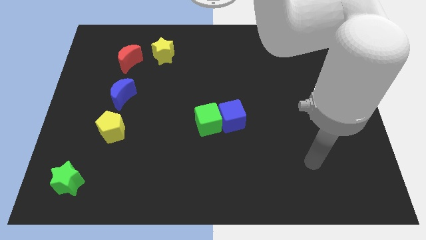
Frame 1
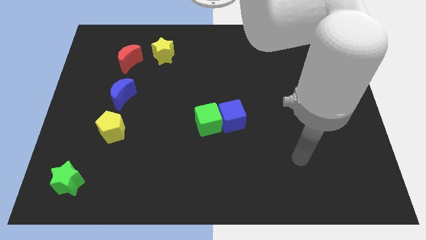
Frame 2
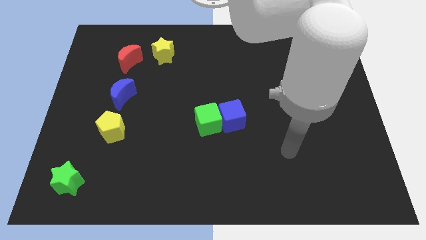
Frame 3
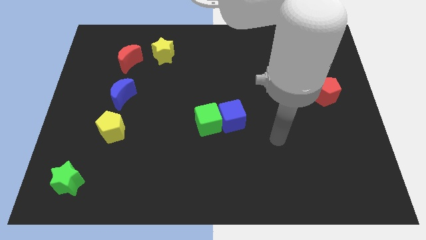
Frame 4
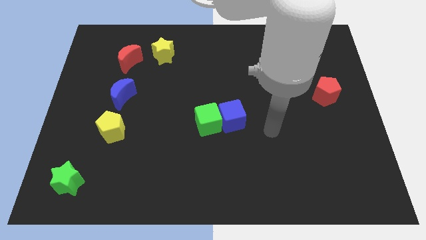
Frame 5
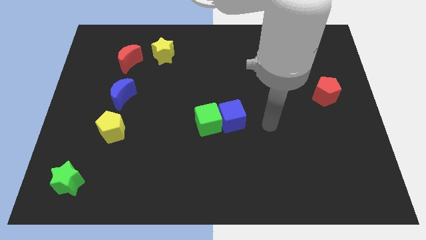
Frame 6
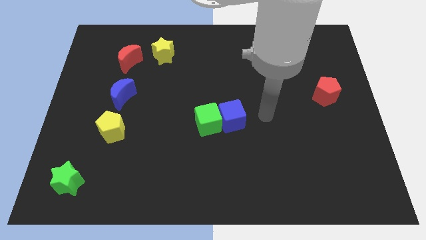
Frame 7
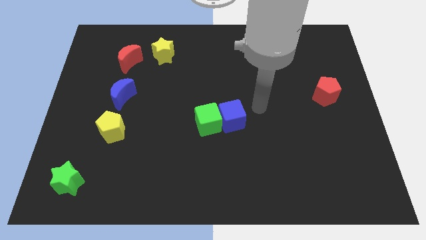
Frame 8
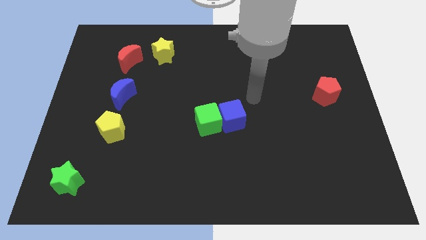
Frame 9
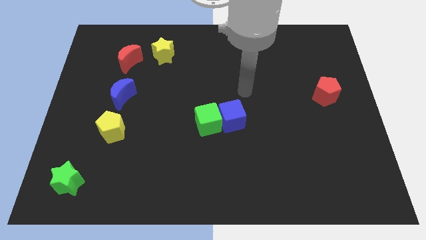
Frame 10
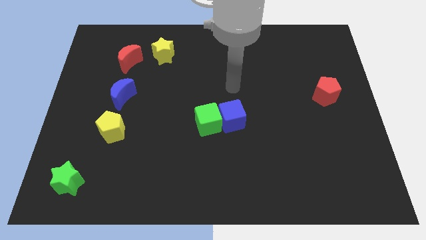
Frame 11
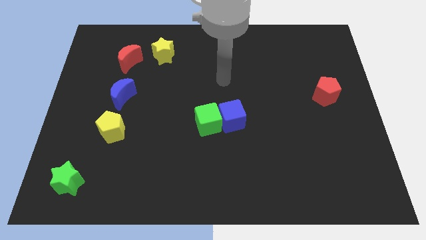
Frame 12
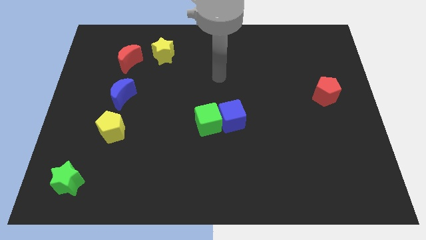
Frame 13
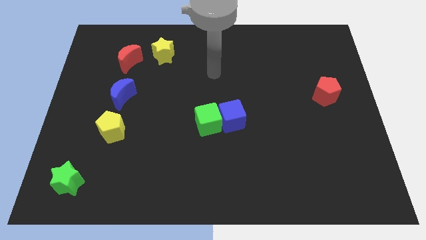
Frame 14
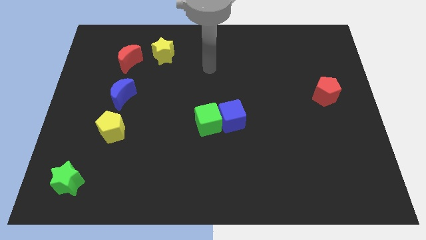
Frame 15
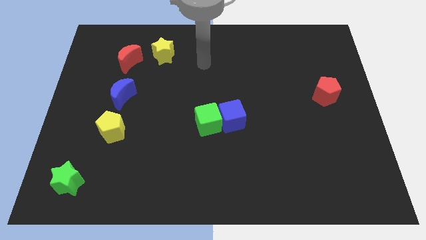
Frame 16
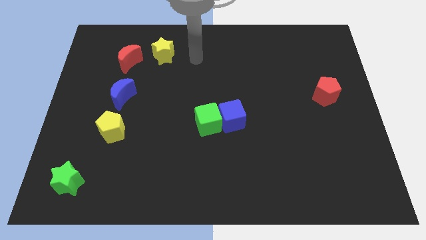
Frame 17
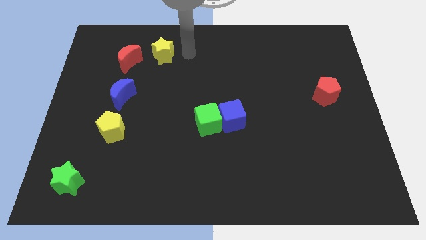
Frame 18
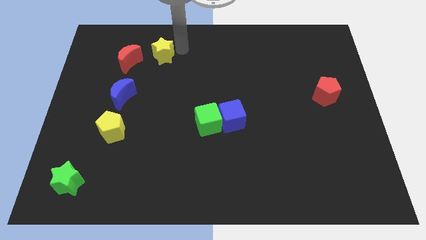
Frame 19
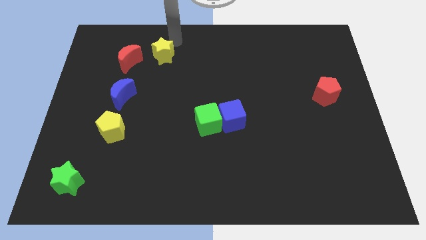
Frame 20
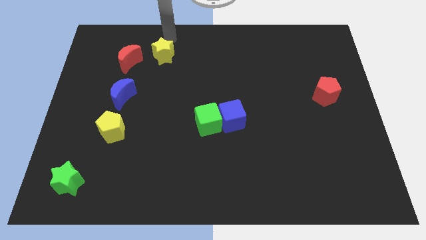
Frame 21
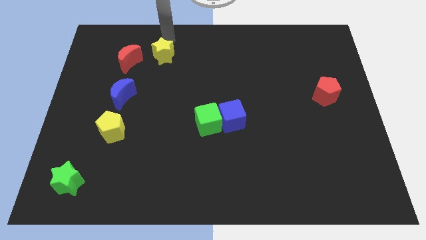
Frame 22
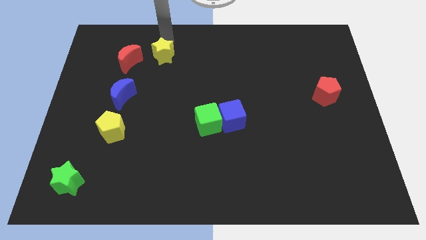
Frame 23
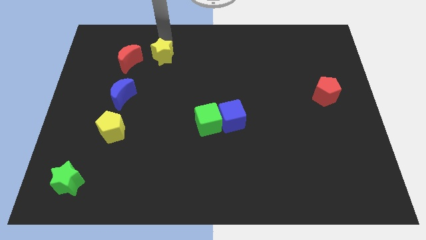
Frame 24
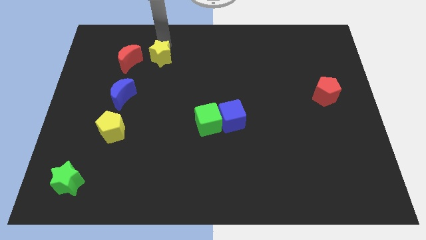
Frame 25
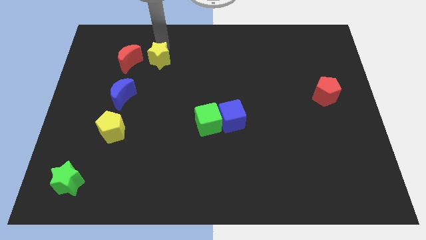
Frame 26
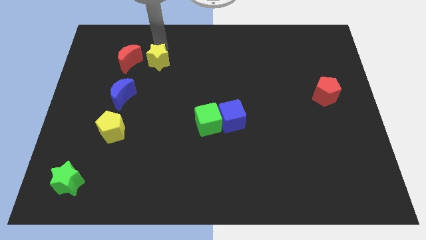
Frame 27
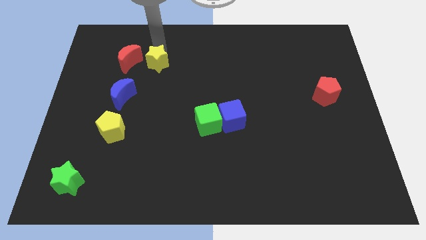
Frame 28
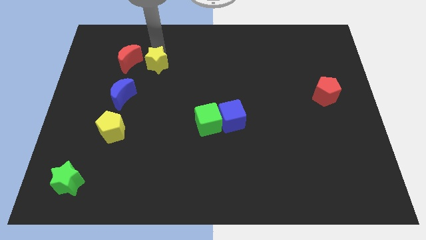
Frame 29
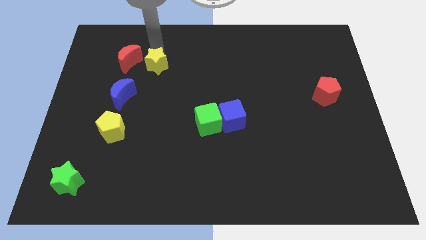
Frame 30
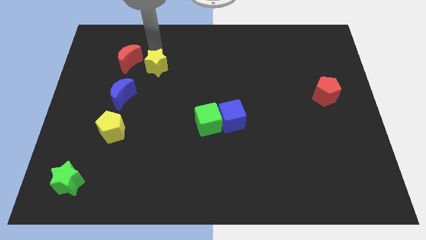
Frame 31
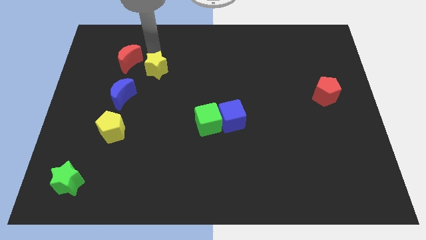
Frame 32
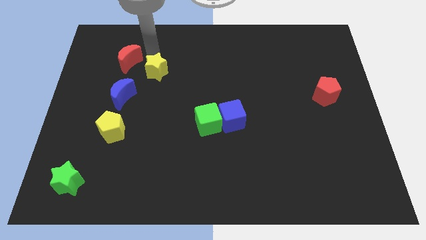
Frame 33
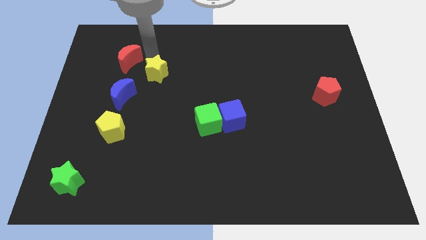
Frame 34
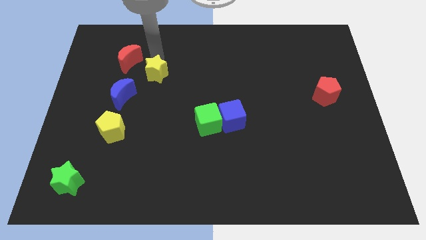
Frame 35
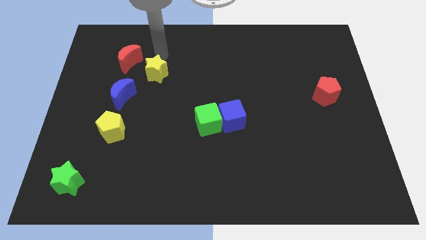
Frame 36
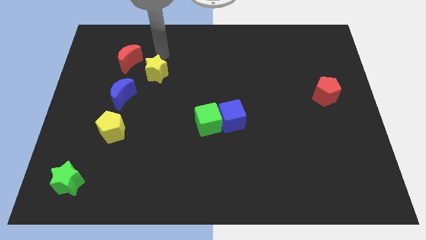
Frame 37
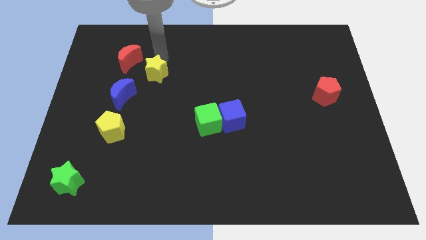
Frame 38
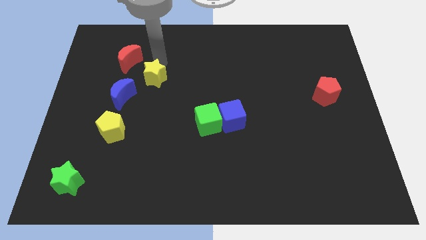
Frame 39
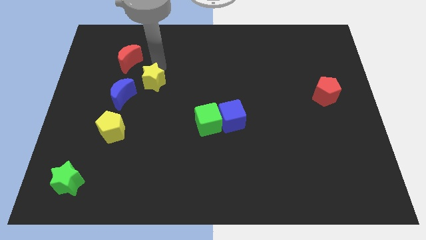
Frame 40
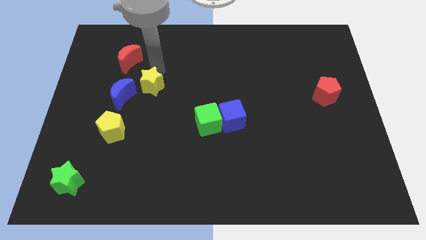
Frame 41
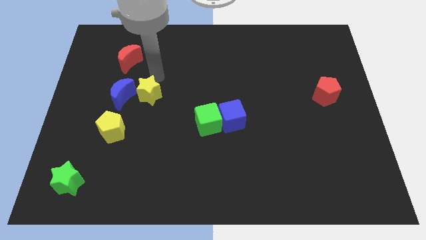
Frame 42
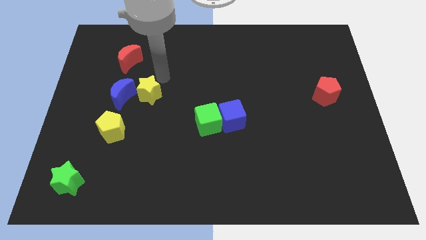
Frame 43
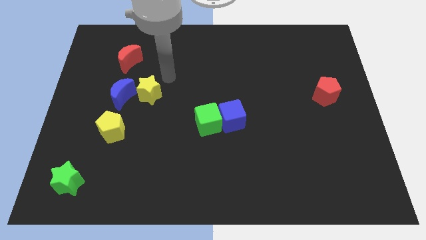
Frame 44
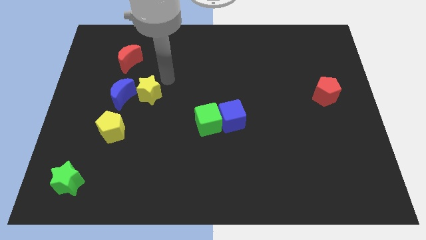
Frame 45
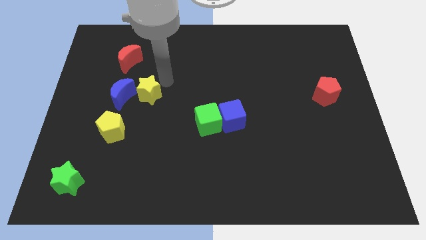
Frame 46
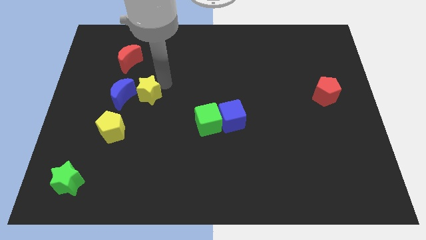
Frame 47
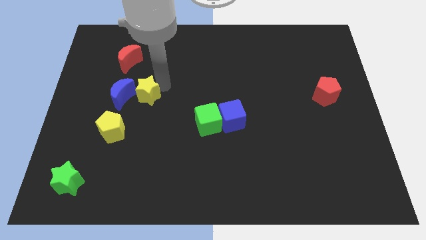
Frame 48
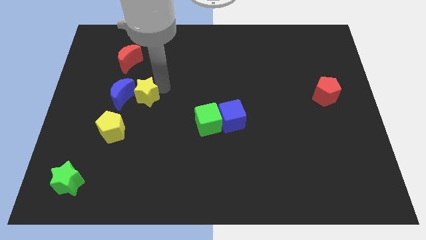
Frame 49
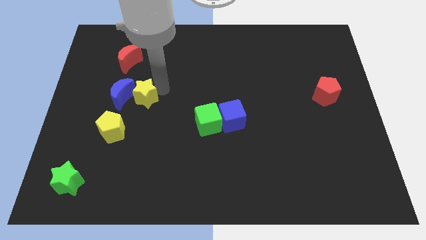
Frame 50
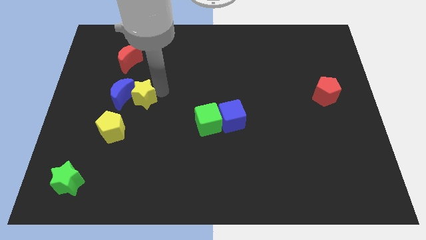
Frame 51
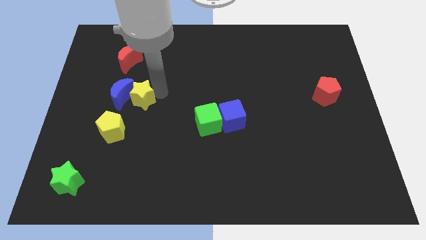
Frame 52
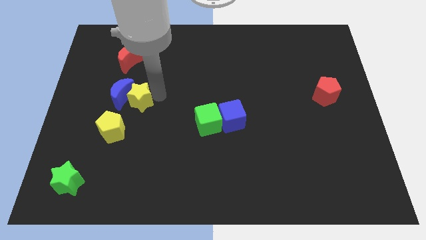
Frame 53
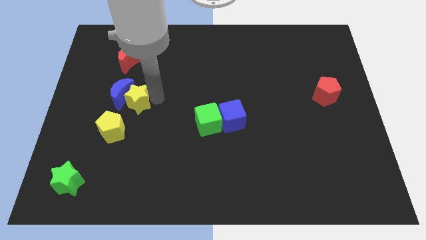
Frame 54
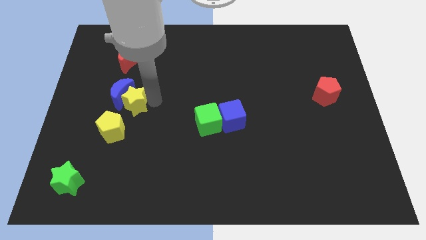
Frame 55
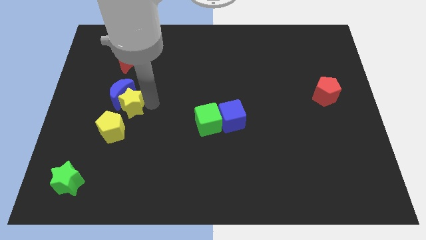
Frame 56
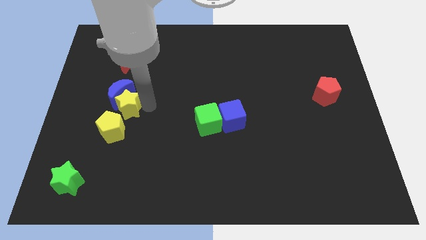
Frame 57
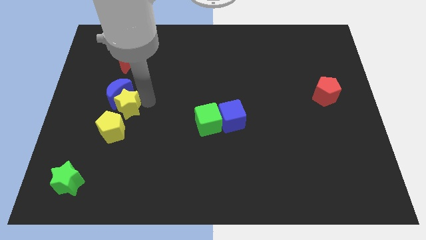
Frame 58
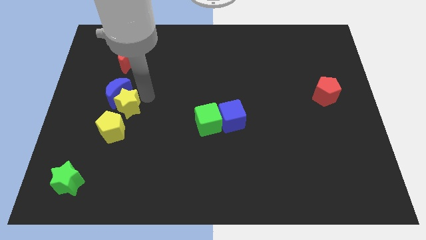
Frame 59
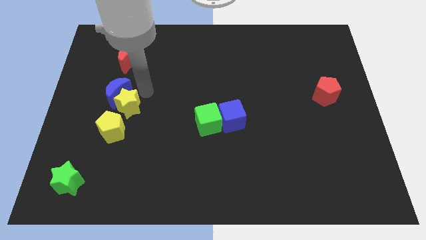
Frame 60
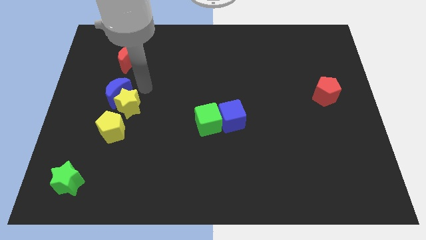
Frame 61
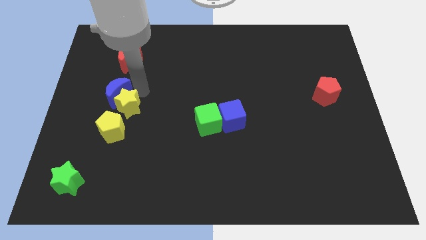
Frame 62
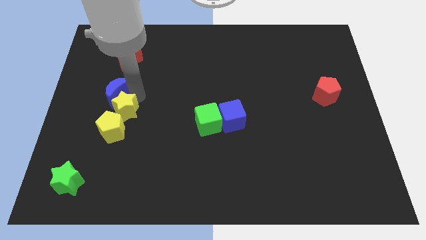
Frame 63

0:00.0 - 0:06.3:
put the yellow star towards the yellow pentagon

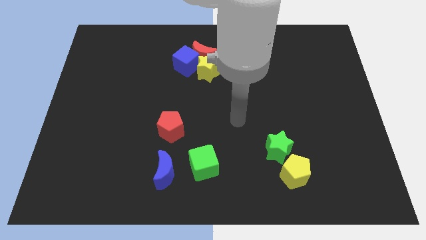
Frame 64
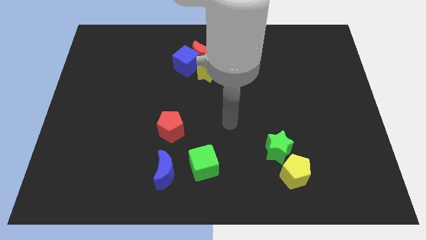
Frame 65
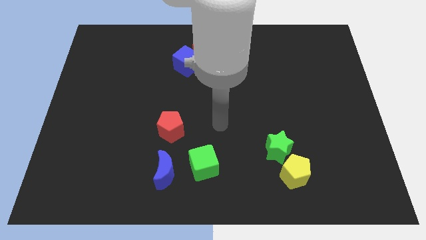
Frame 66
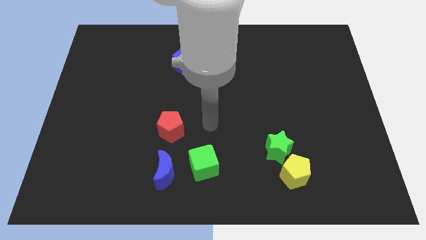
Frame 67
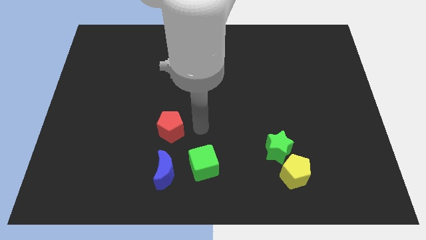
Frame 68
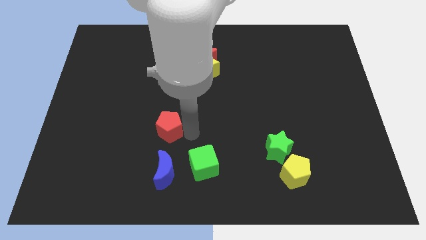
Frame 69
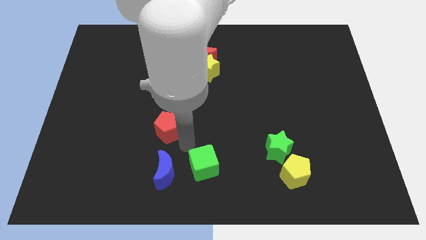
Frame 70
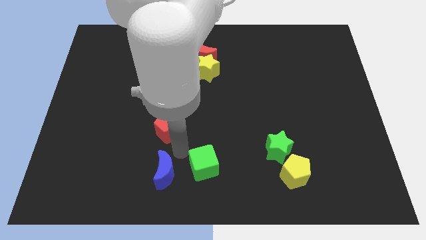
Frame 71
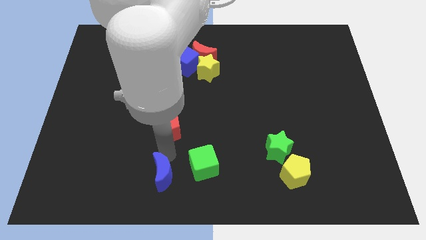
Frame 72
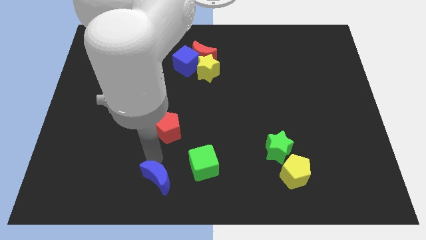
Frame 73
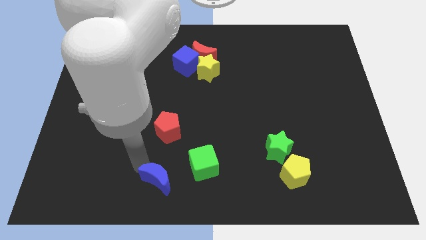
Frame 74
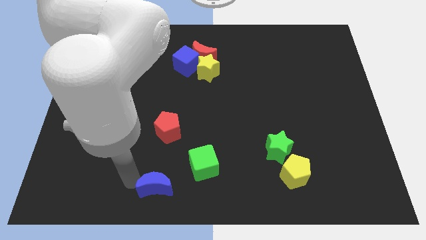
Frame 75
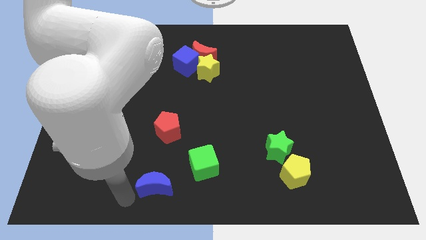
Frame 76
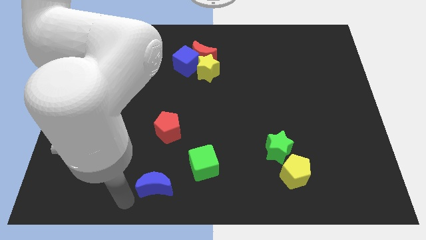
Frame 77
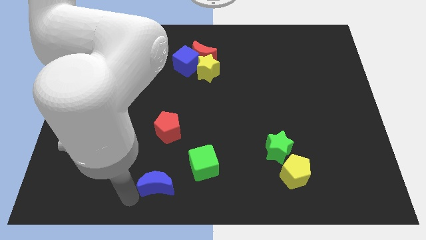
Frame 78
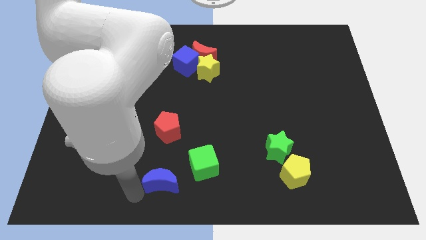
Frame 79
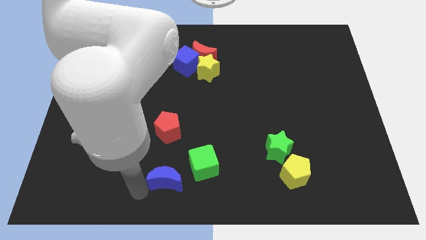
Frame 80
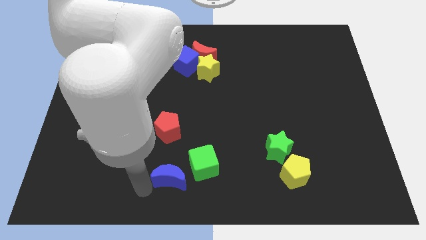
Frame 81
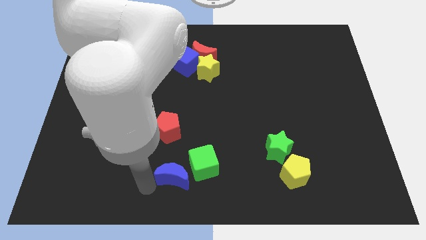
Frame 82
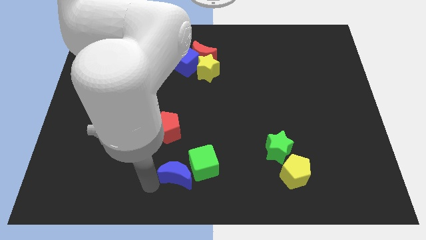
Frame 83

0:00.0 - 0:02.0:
slide the blue moon to the green cube
